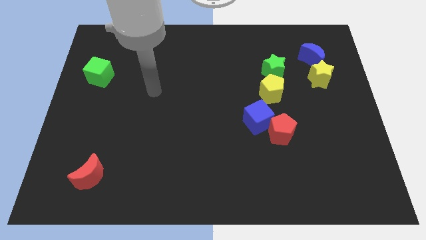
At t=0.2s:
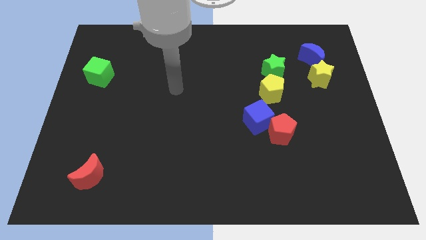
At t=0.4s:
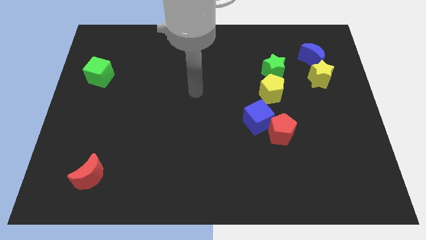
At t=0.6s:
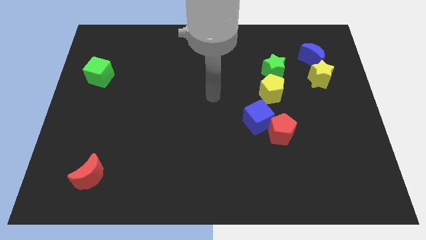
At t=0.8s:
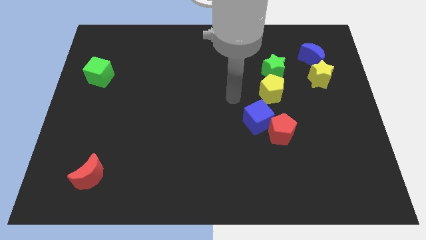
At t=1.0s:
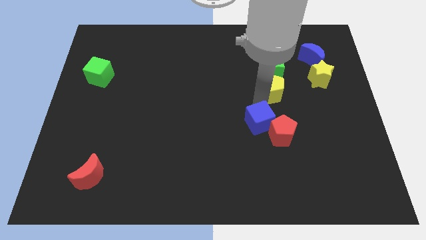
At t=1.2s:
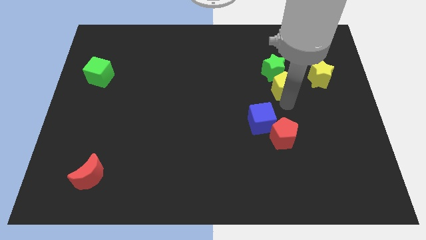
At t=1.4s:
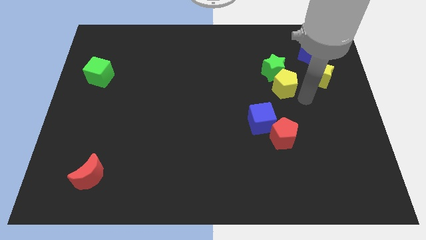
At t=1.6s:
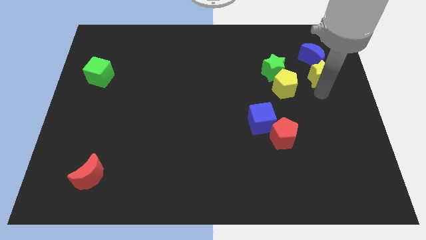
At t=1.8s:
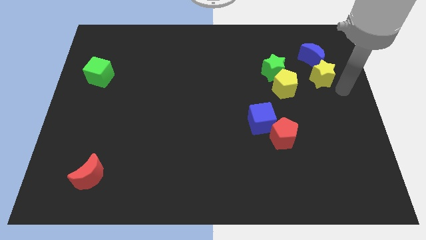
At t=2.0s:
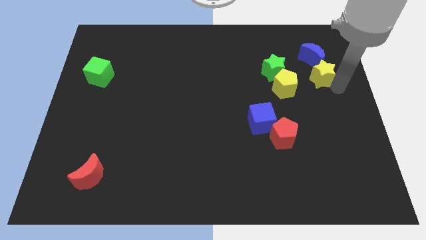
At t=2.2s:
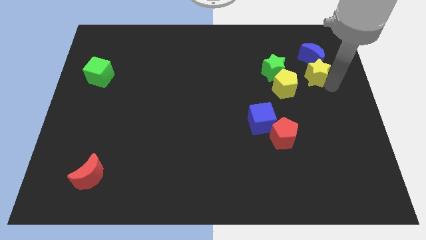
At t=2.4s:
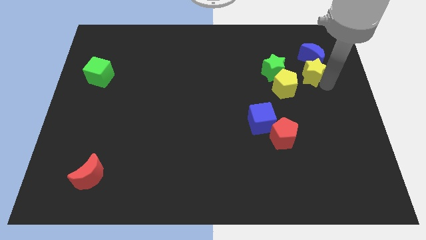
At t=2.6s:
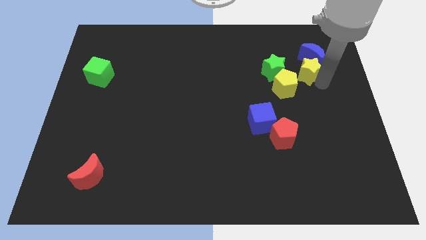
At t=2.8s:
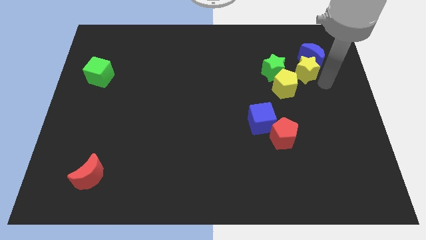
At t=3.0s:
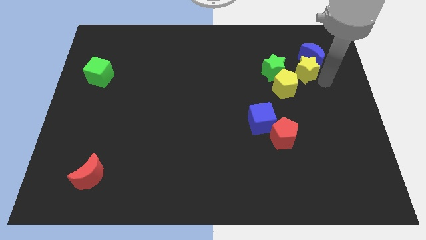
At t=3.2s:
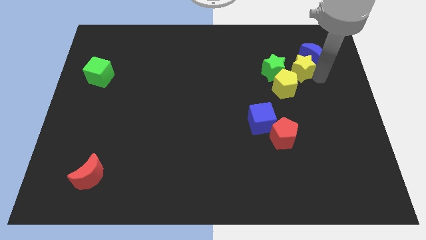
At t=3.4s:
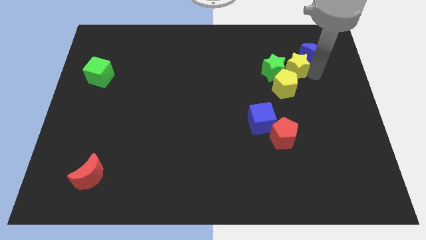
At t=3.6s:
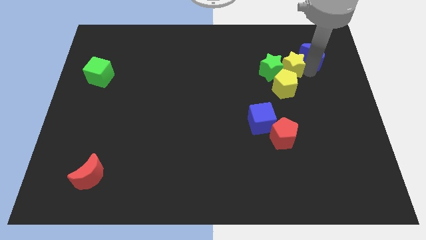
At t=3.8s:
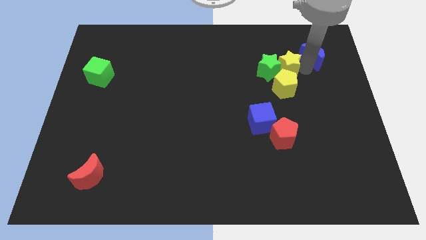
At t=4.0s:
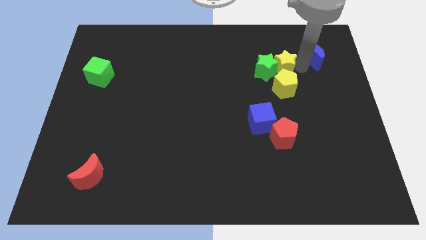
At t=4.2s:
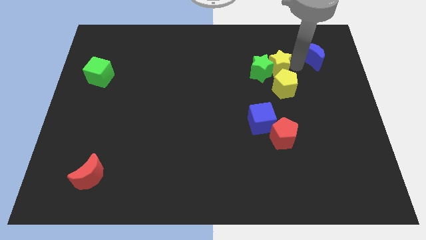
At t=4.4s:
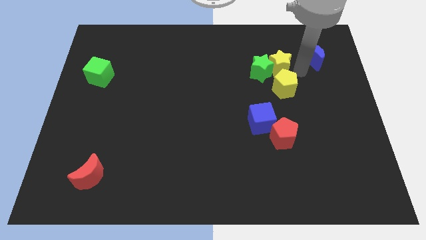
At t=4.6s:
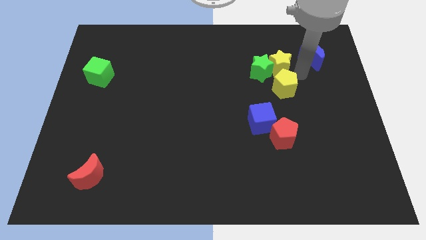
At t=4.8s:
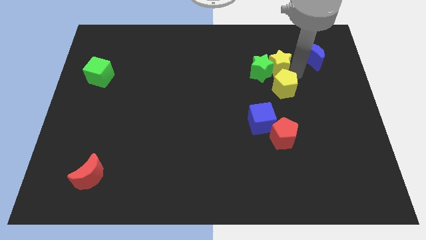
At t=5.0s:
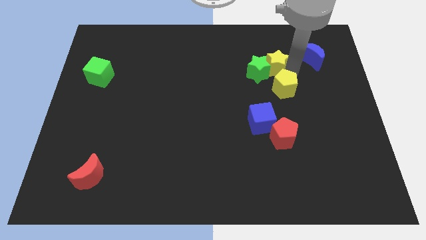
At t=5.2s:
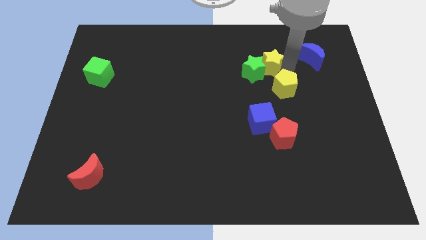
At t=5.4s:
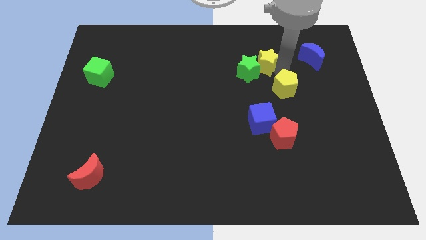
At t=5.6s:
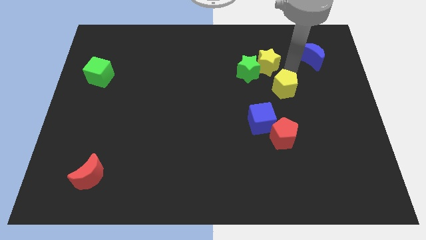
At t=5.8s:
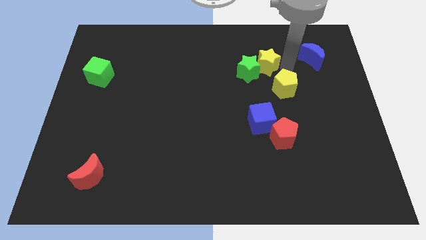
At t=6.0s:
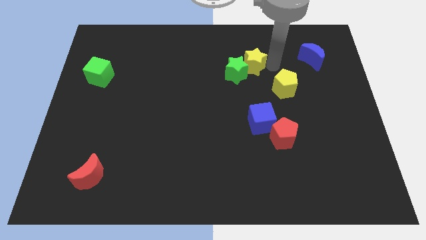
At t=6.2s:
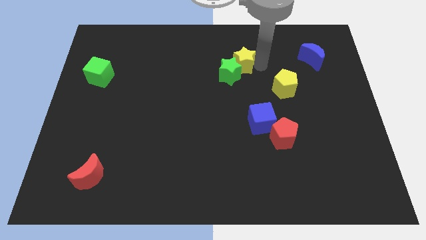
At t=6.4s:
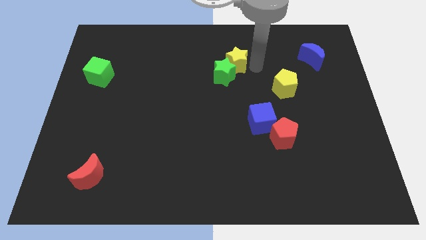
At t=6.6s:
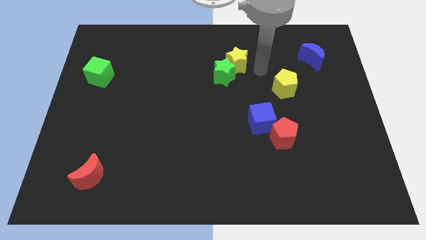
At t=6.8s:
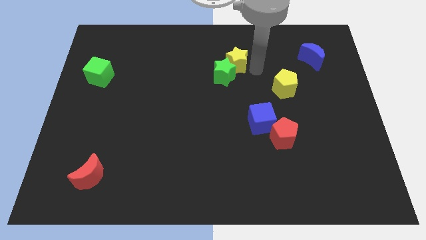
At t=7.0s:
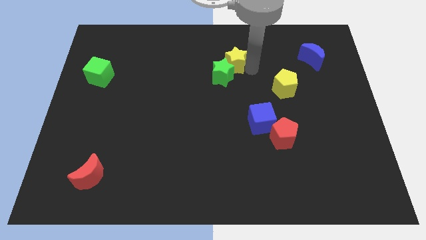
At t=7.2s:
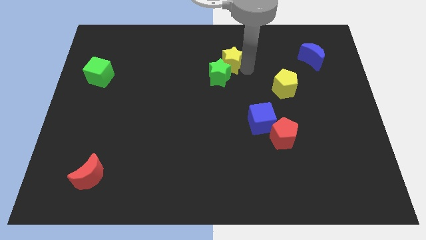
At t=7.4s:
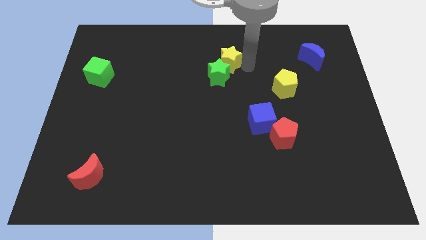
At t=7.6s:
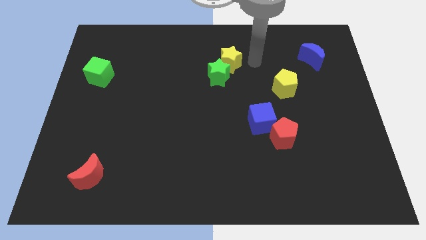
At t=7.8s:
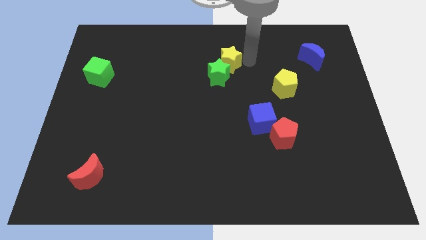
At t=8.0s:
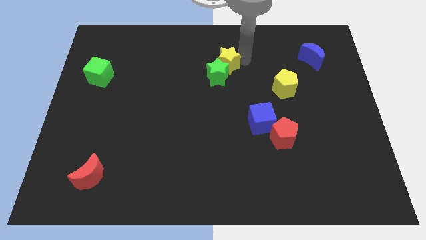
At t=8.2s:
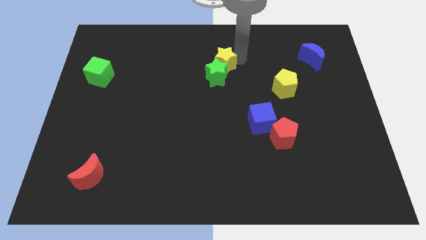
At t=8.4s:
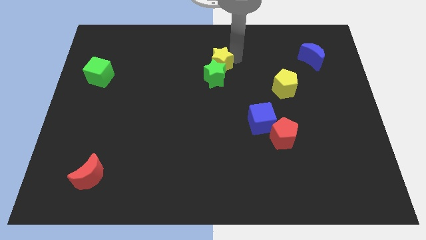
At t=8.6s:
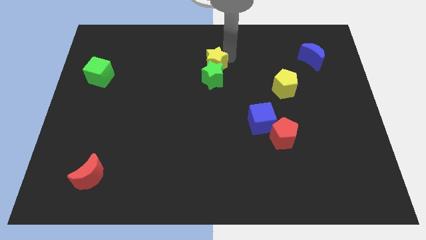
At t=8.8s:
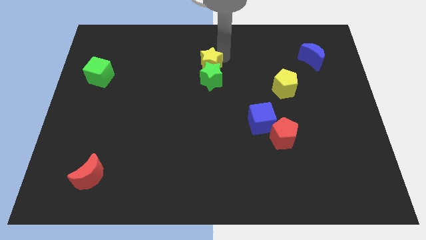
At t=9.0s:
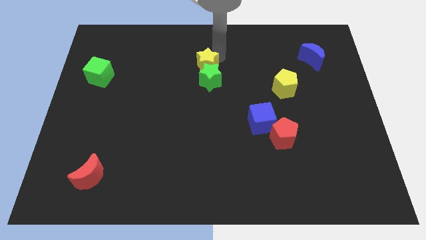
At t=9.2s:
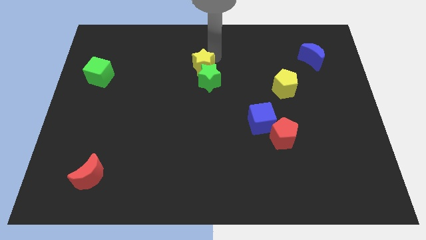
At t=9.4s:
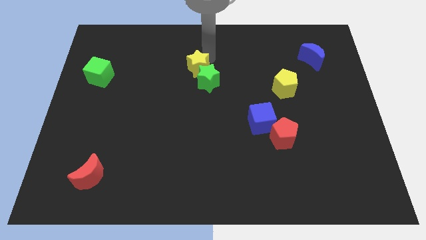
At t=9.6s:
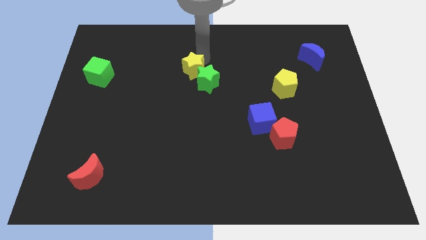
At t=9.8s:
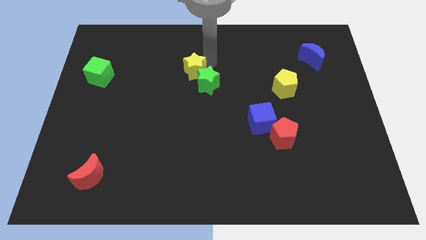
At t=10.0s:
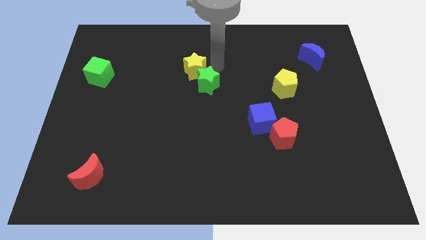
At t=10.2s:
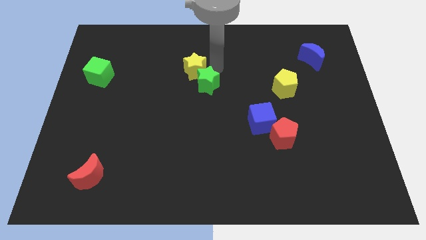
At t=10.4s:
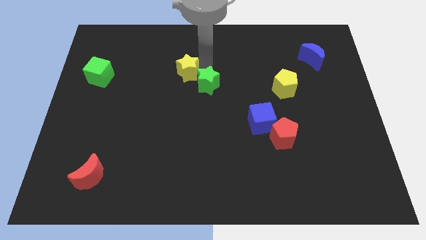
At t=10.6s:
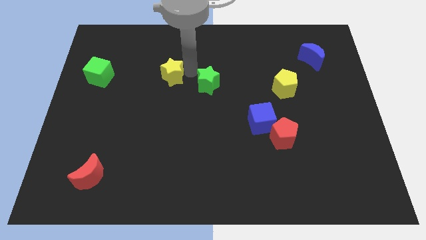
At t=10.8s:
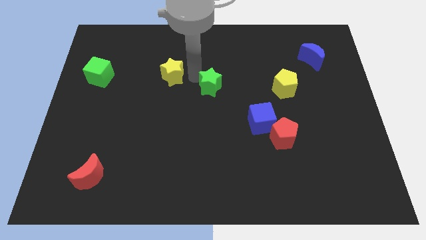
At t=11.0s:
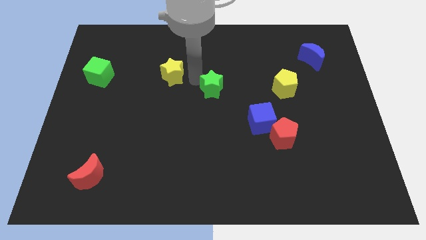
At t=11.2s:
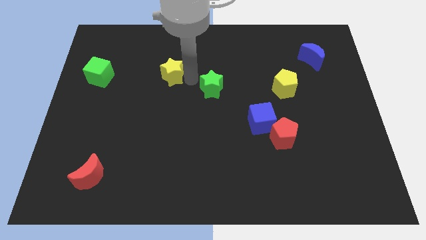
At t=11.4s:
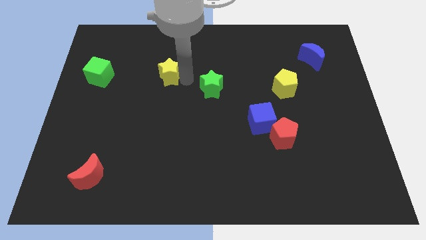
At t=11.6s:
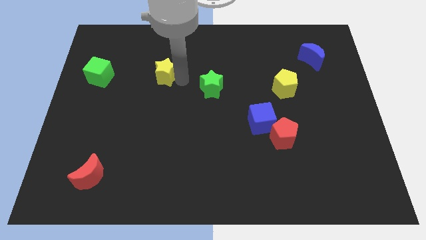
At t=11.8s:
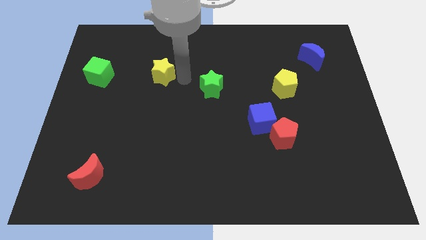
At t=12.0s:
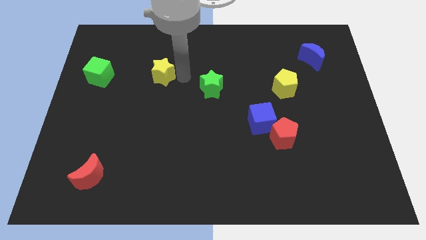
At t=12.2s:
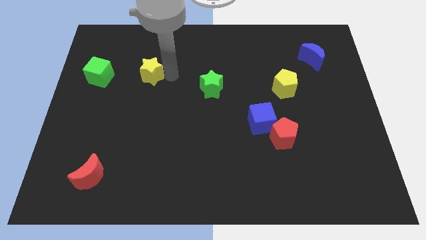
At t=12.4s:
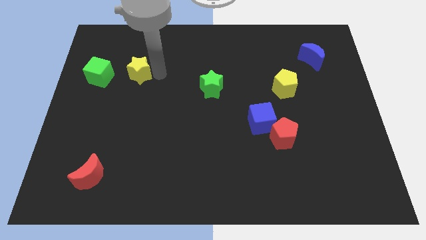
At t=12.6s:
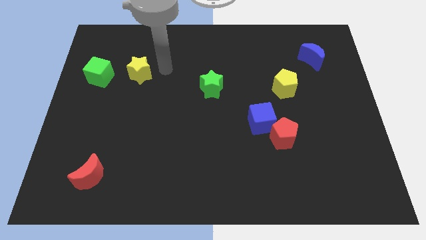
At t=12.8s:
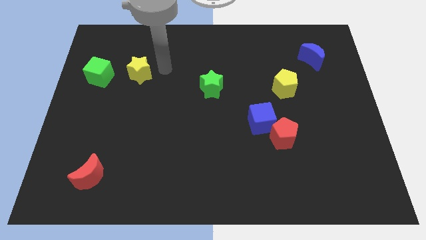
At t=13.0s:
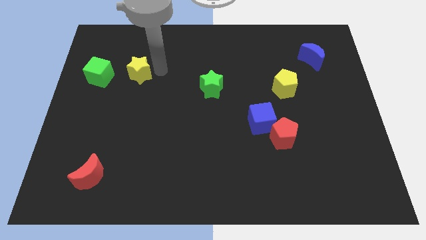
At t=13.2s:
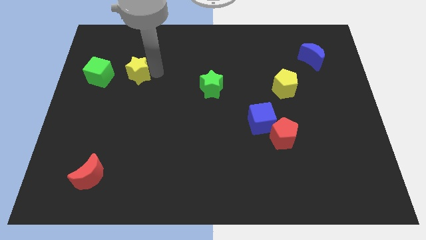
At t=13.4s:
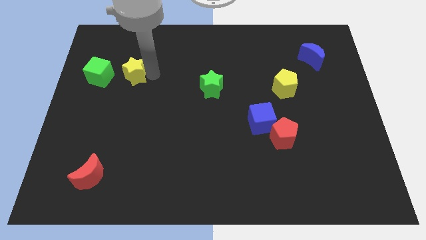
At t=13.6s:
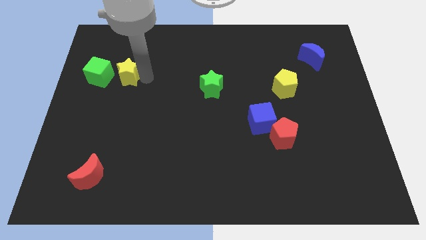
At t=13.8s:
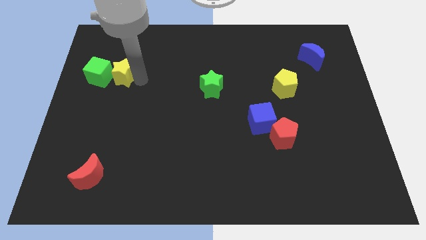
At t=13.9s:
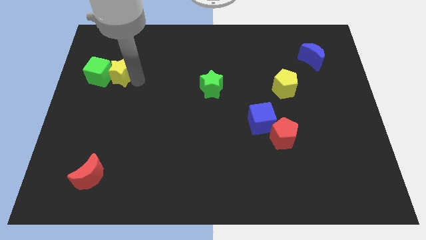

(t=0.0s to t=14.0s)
push the yellow star close to the green cube
